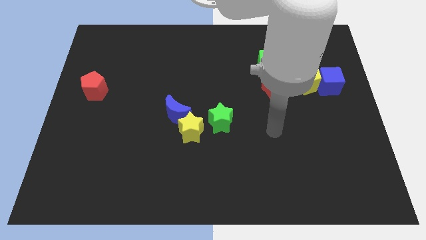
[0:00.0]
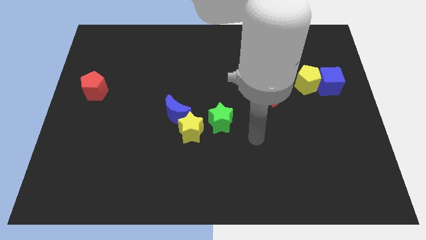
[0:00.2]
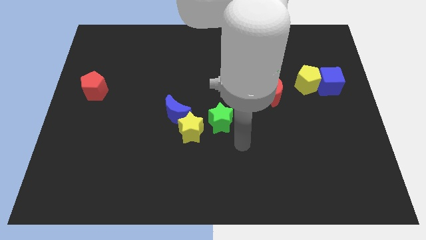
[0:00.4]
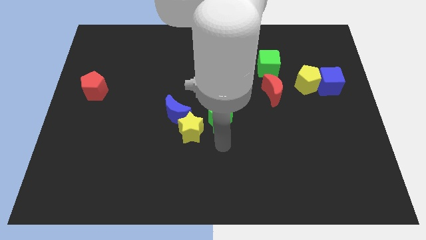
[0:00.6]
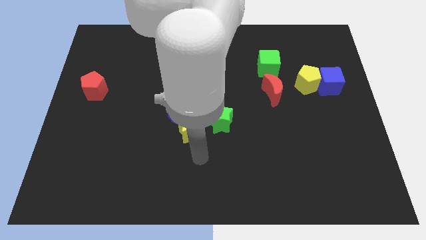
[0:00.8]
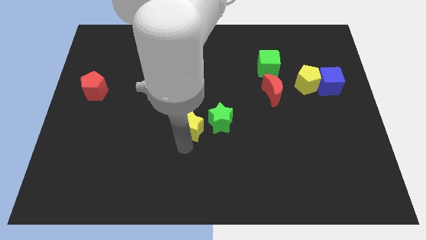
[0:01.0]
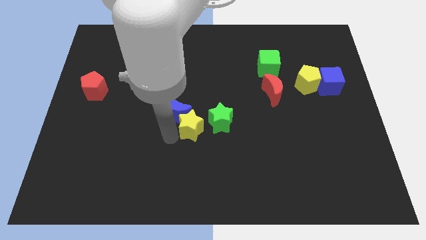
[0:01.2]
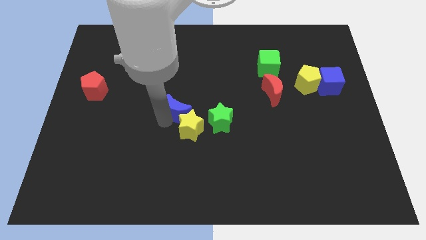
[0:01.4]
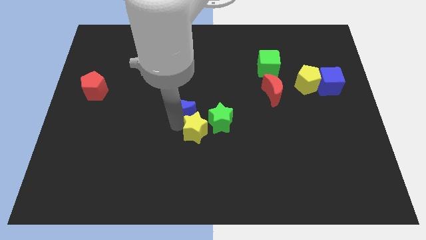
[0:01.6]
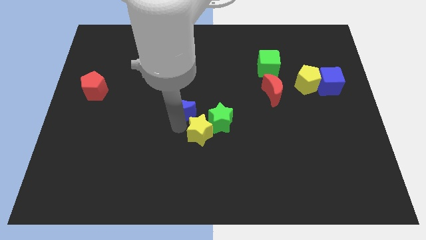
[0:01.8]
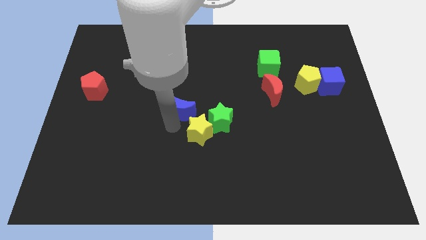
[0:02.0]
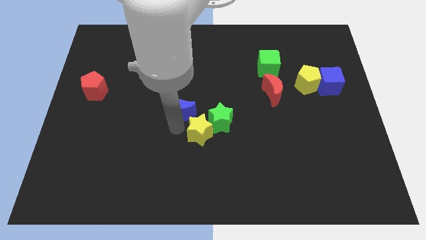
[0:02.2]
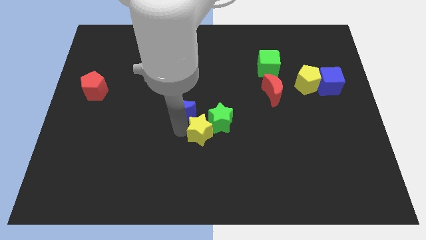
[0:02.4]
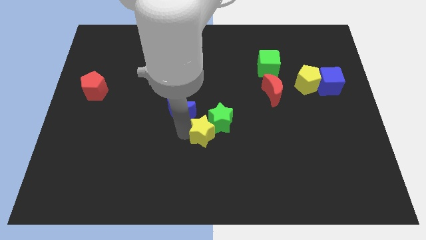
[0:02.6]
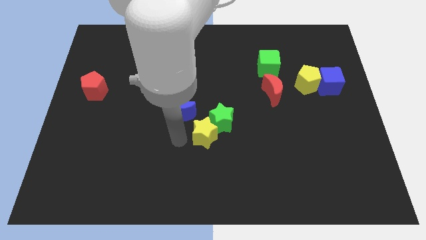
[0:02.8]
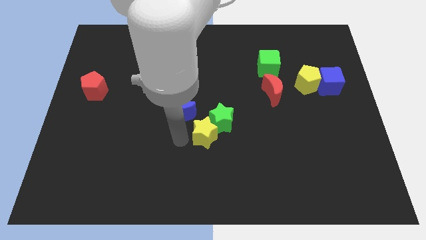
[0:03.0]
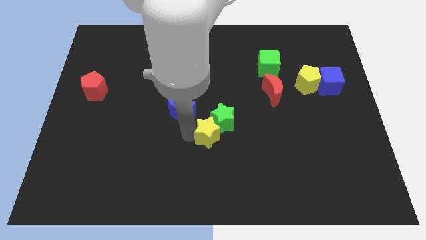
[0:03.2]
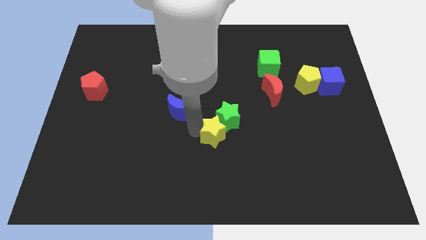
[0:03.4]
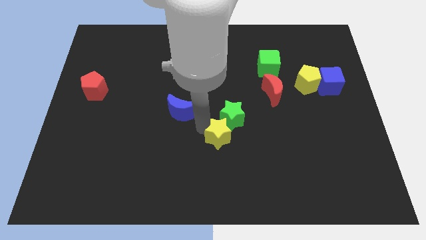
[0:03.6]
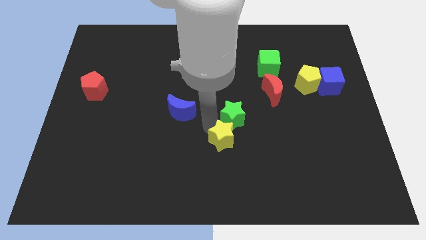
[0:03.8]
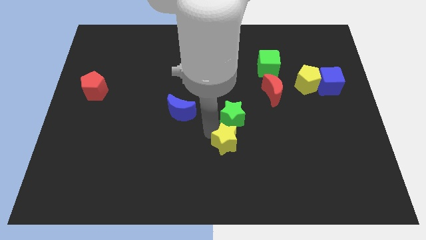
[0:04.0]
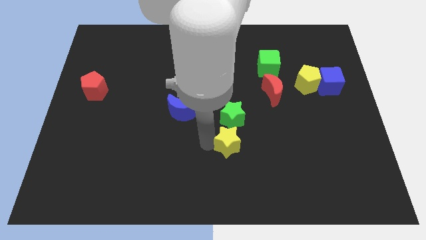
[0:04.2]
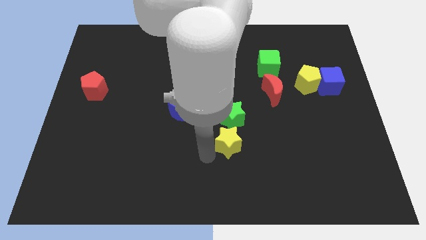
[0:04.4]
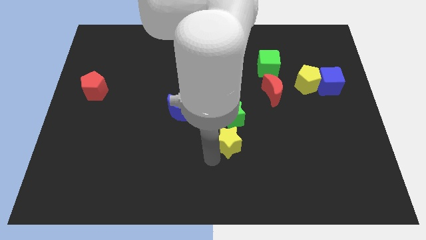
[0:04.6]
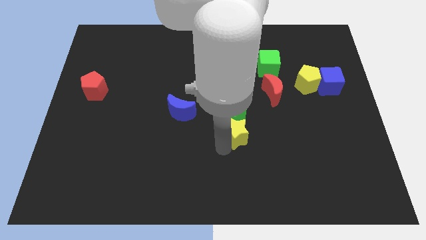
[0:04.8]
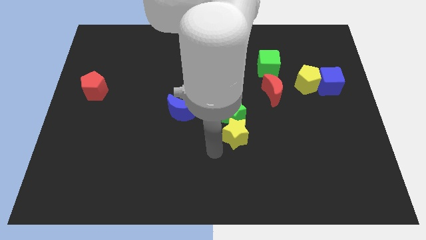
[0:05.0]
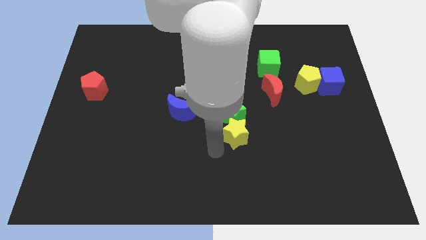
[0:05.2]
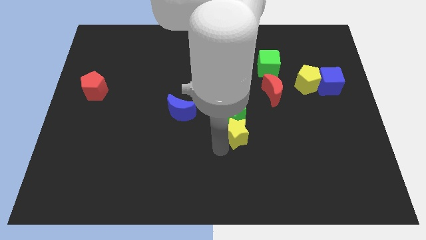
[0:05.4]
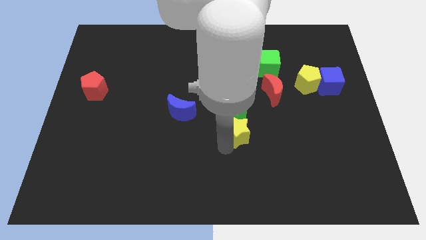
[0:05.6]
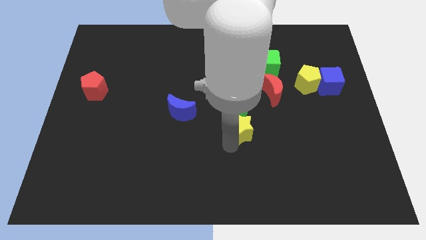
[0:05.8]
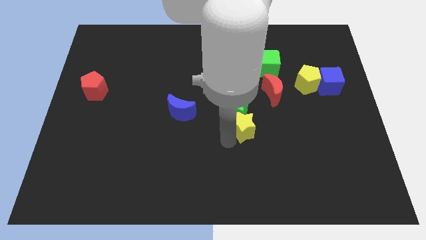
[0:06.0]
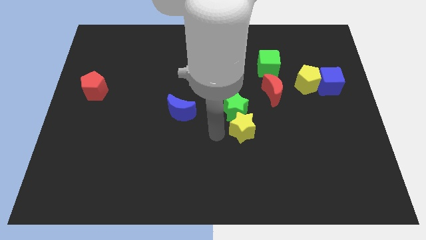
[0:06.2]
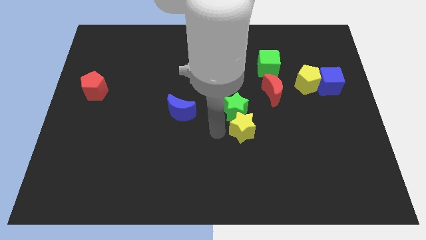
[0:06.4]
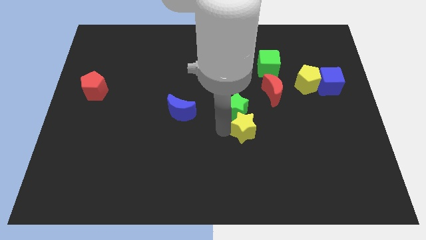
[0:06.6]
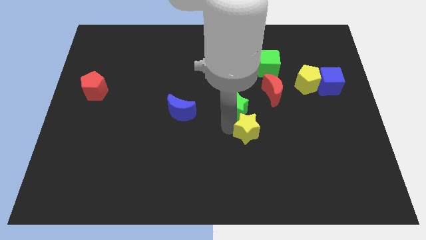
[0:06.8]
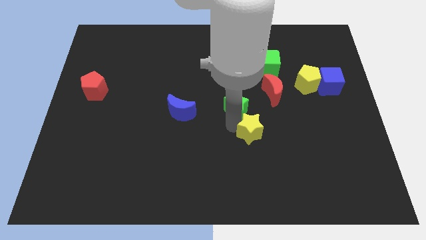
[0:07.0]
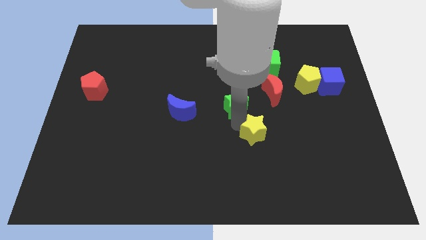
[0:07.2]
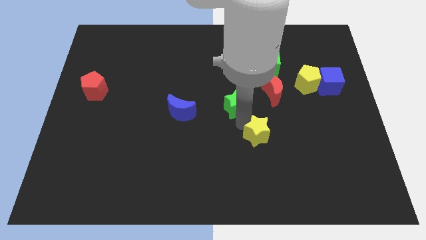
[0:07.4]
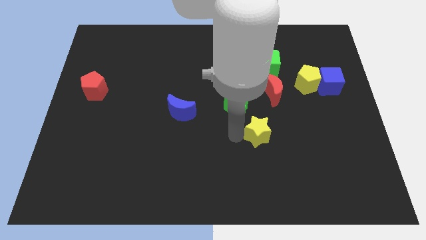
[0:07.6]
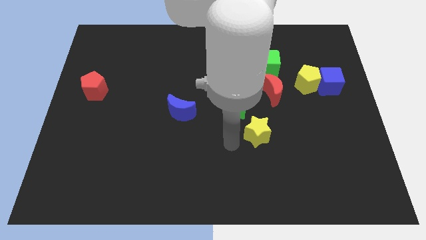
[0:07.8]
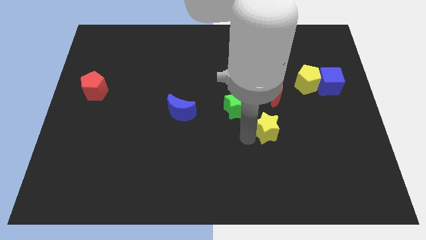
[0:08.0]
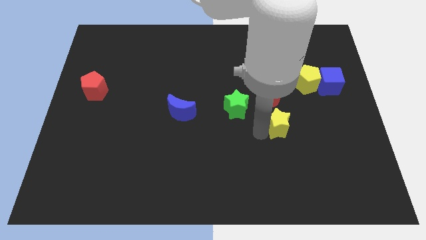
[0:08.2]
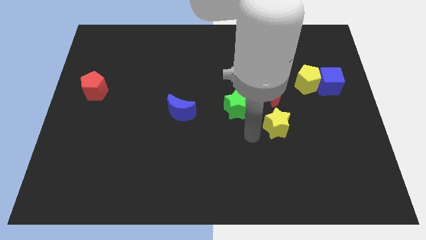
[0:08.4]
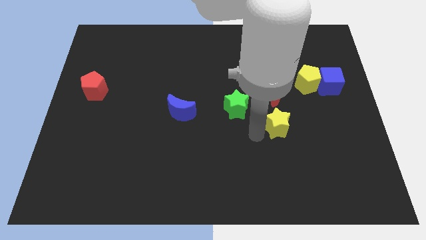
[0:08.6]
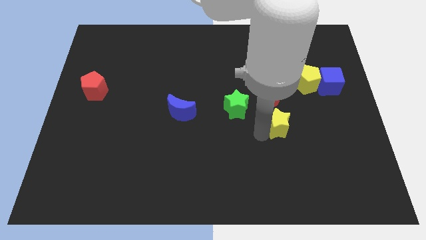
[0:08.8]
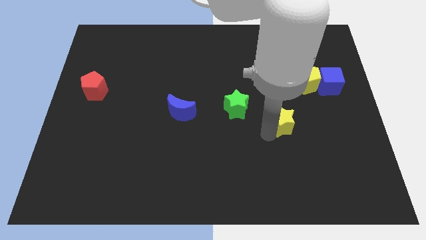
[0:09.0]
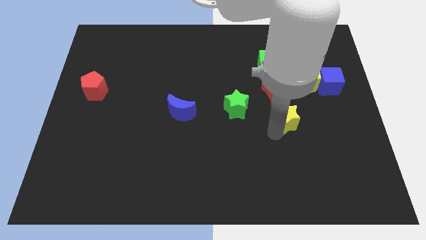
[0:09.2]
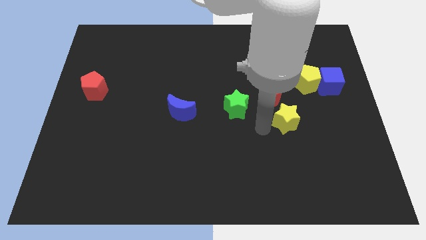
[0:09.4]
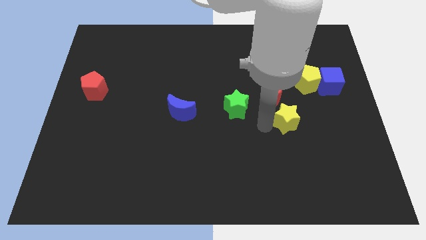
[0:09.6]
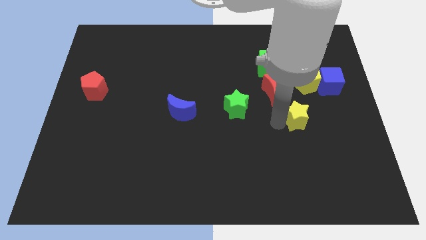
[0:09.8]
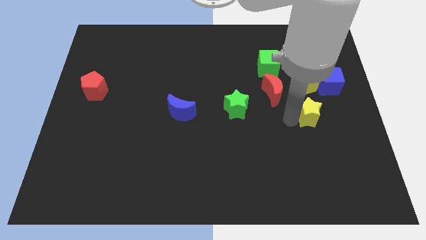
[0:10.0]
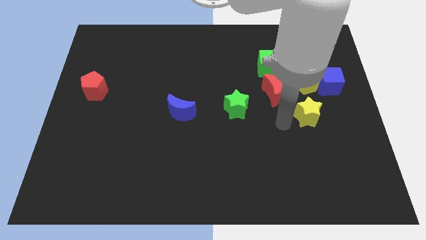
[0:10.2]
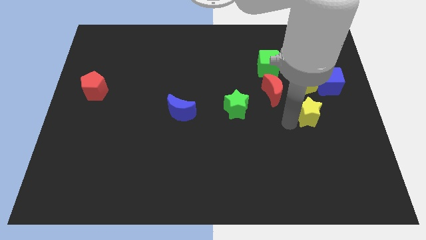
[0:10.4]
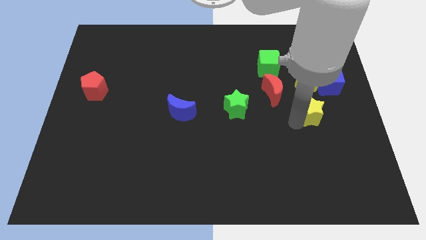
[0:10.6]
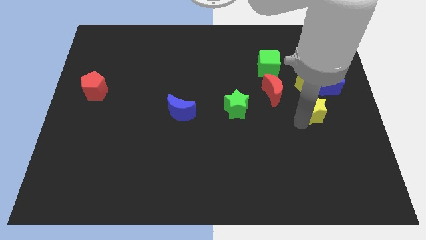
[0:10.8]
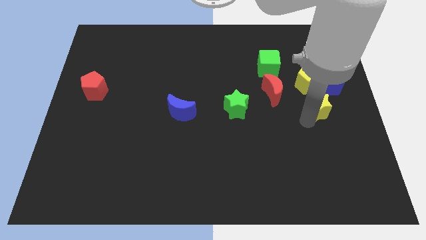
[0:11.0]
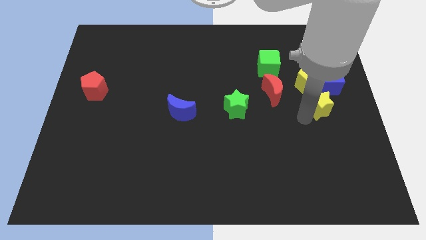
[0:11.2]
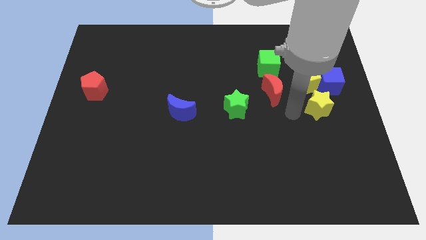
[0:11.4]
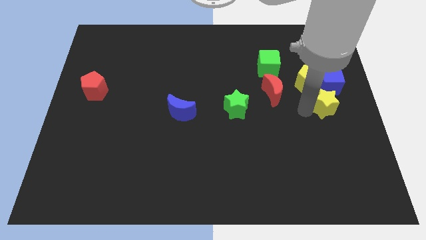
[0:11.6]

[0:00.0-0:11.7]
put the yellow star to the right side of the board

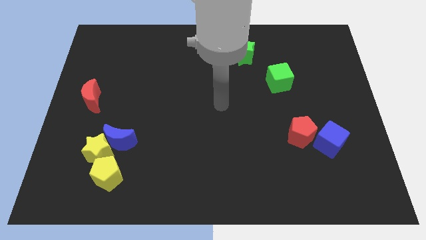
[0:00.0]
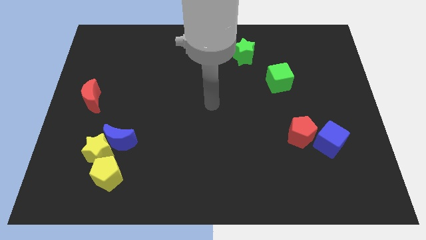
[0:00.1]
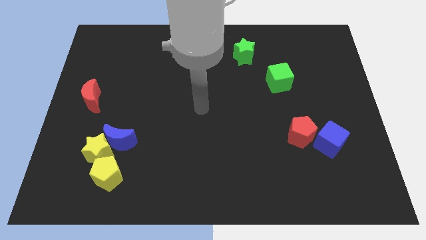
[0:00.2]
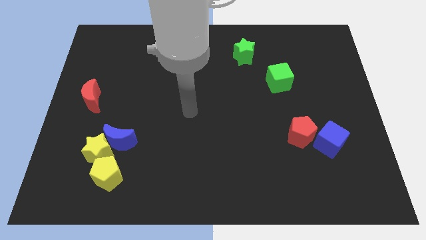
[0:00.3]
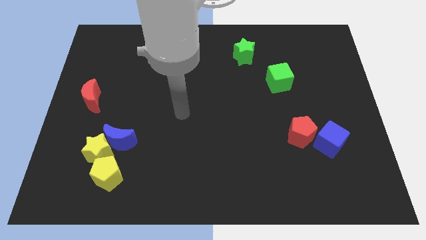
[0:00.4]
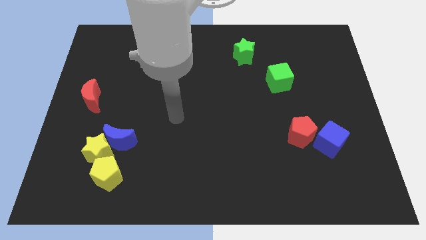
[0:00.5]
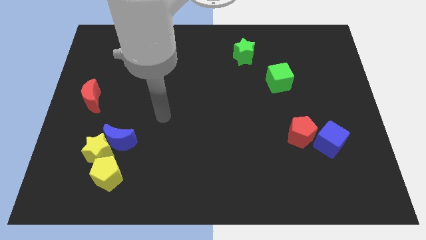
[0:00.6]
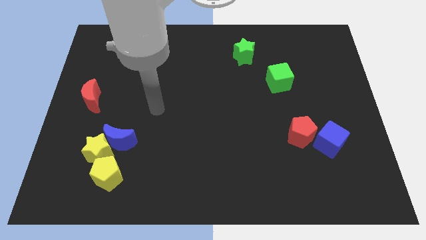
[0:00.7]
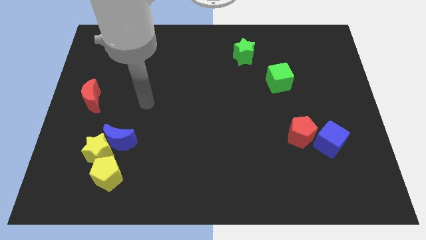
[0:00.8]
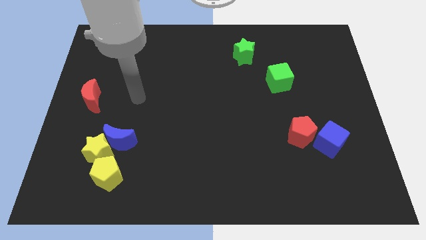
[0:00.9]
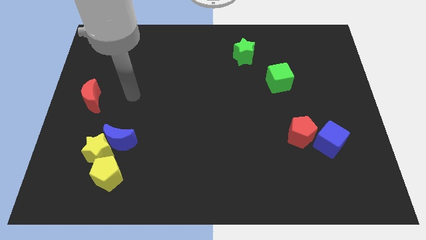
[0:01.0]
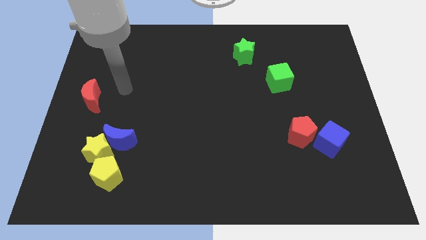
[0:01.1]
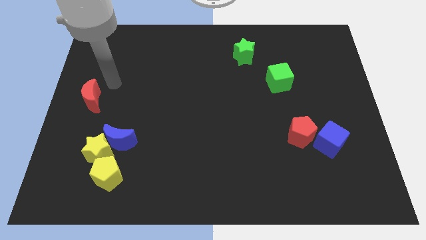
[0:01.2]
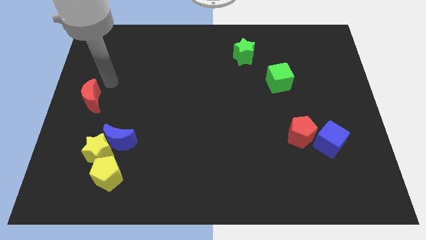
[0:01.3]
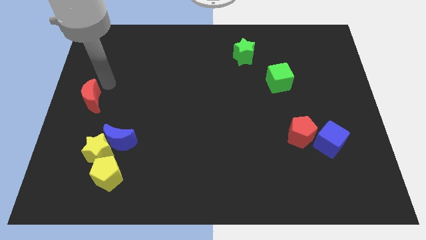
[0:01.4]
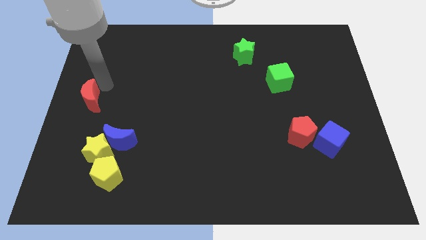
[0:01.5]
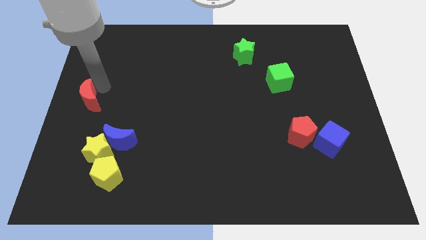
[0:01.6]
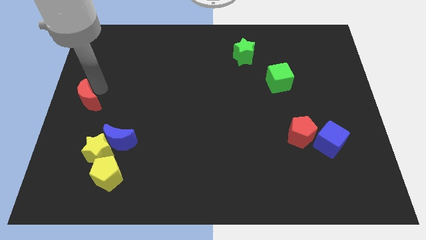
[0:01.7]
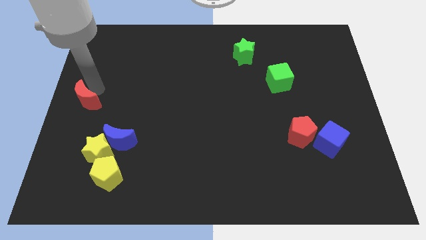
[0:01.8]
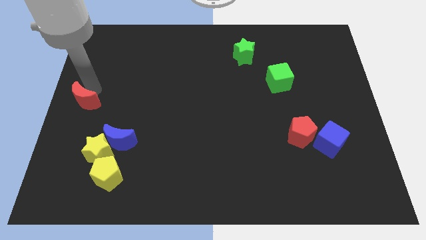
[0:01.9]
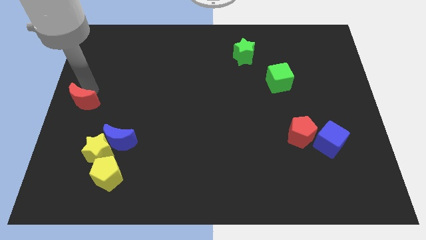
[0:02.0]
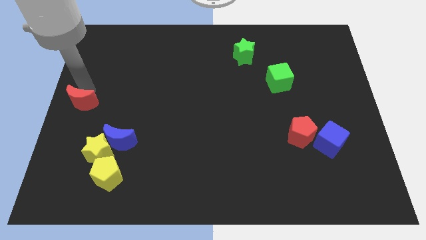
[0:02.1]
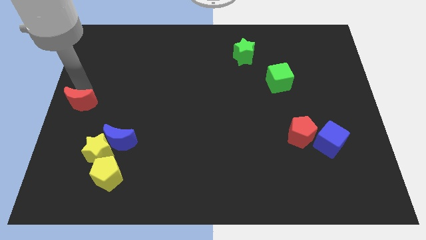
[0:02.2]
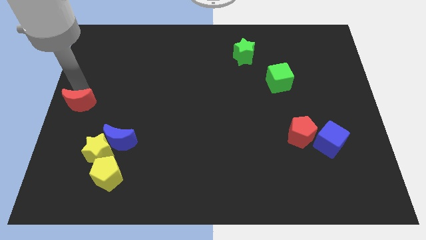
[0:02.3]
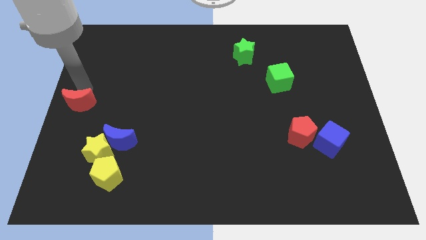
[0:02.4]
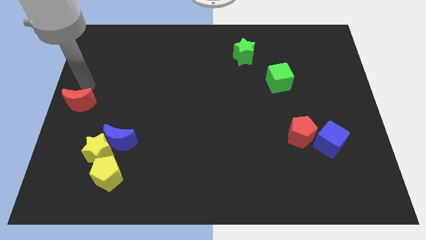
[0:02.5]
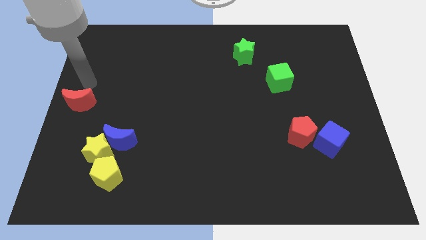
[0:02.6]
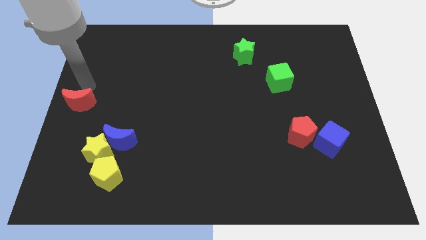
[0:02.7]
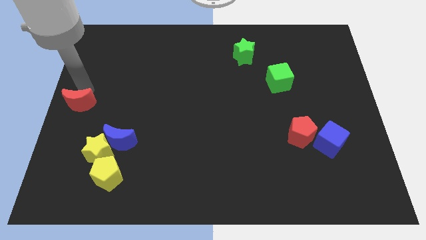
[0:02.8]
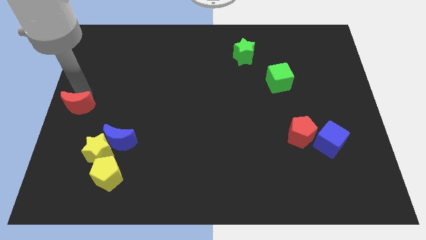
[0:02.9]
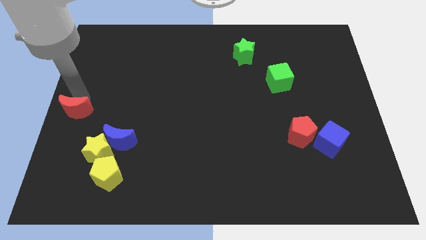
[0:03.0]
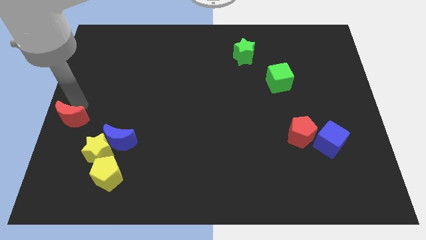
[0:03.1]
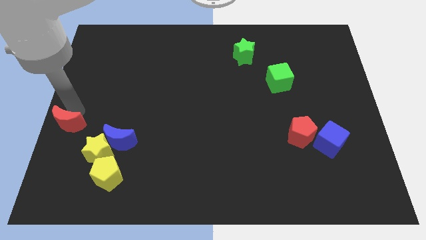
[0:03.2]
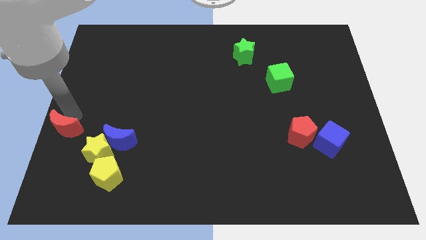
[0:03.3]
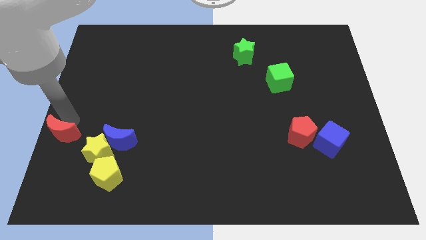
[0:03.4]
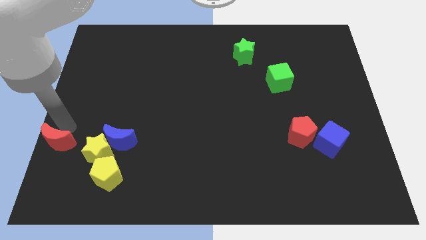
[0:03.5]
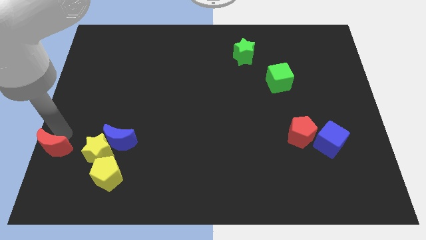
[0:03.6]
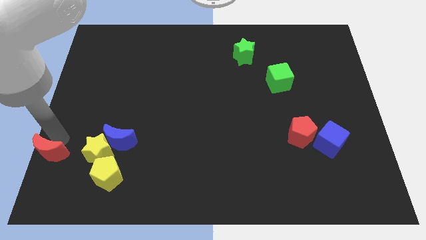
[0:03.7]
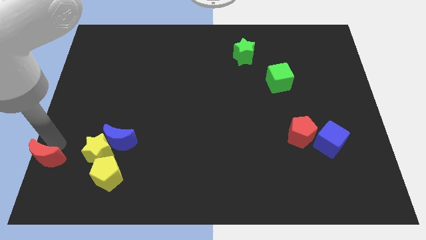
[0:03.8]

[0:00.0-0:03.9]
move the red moon to the bottom left
